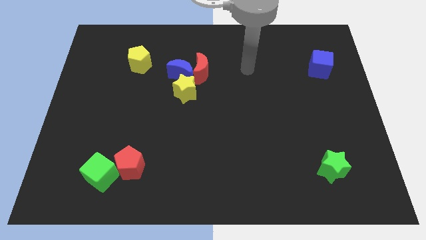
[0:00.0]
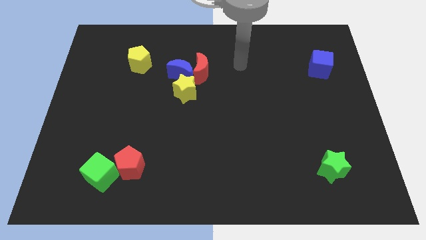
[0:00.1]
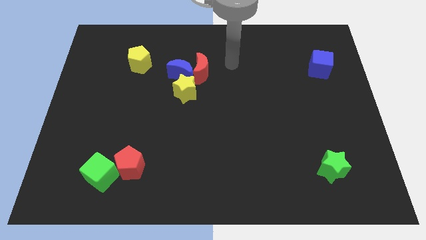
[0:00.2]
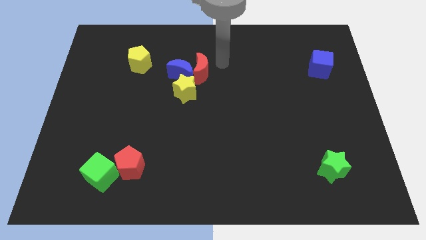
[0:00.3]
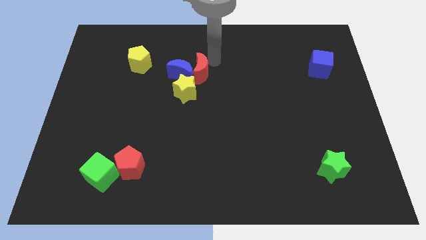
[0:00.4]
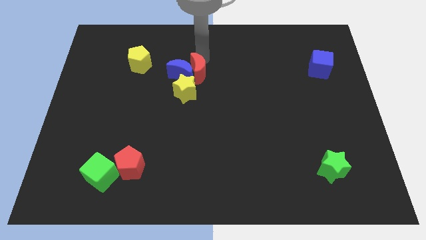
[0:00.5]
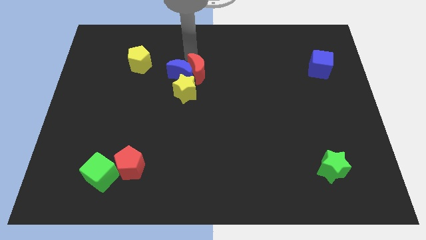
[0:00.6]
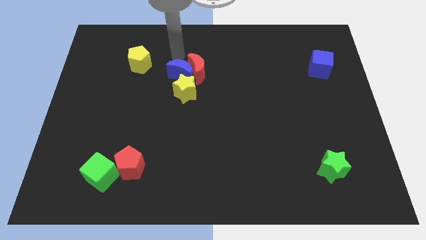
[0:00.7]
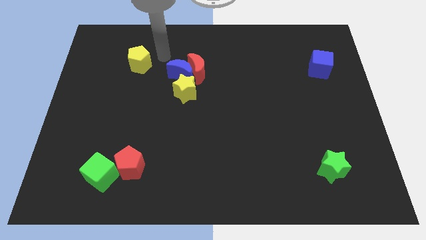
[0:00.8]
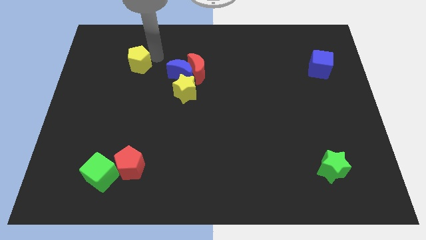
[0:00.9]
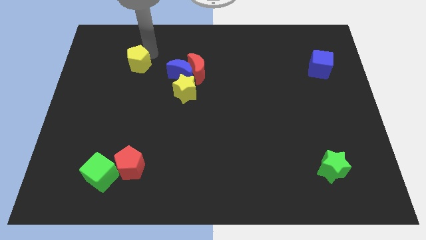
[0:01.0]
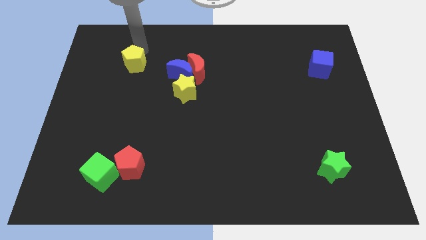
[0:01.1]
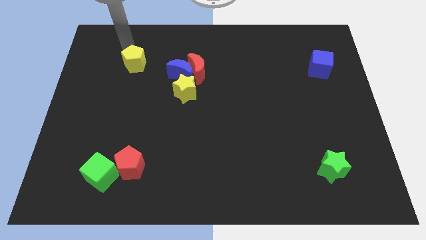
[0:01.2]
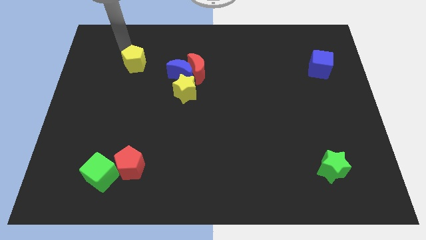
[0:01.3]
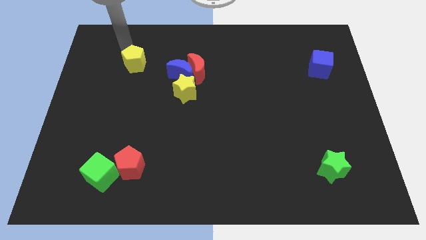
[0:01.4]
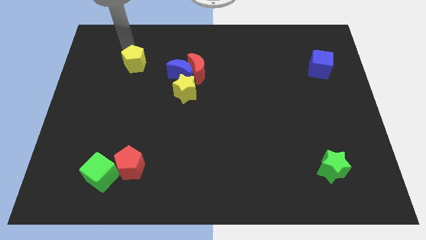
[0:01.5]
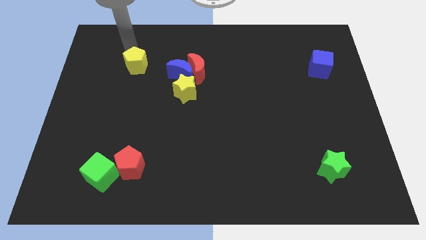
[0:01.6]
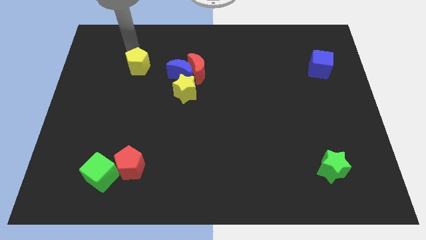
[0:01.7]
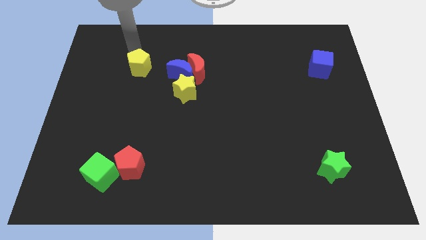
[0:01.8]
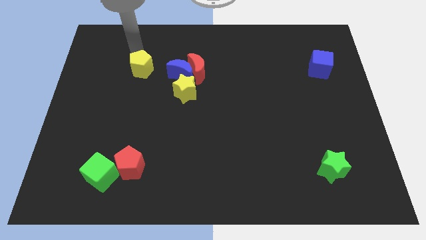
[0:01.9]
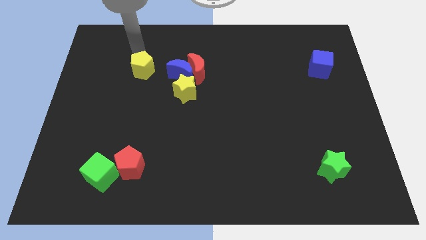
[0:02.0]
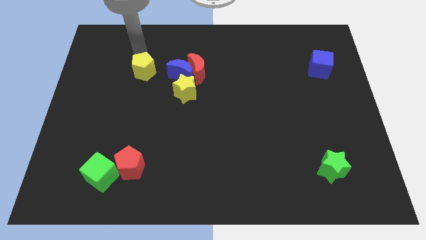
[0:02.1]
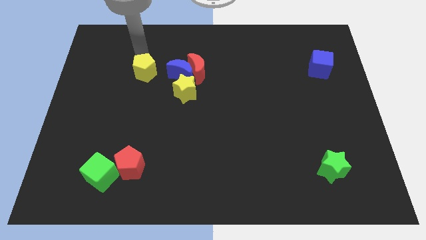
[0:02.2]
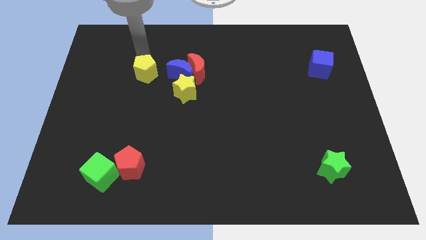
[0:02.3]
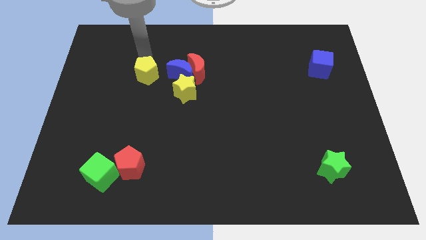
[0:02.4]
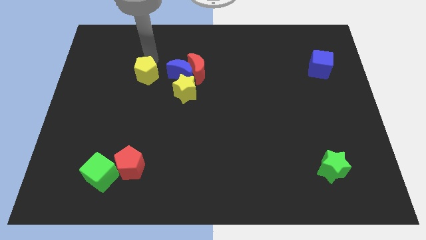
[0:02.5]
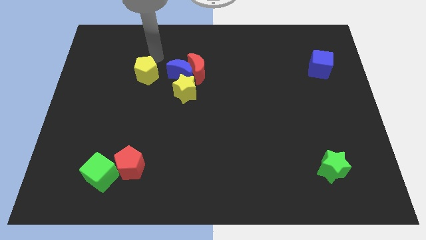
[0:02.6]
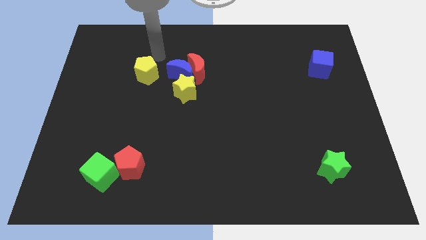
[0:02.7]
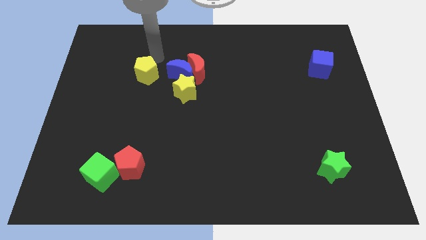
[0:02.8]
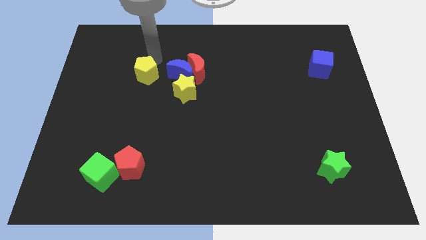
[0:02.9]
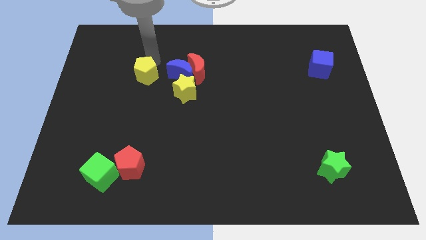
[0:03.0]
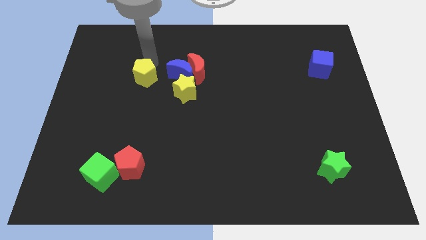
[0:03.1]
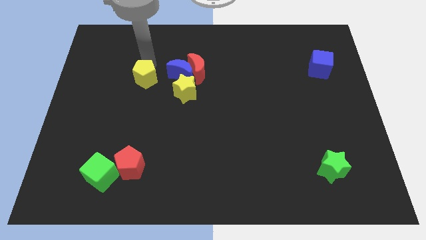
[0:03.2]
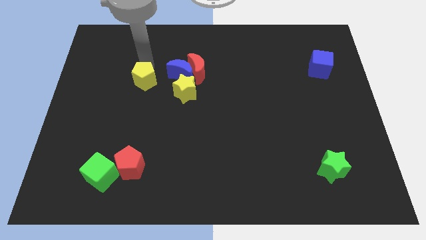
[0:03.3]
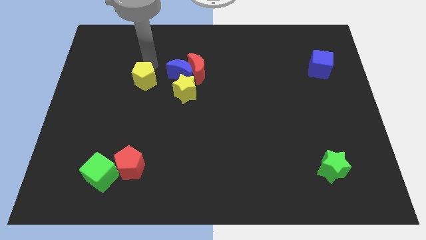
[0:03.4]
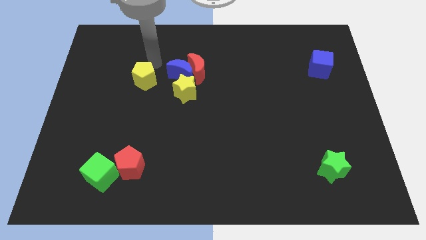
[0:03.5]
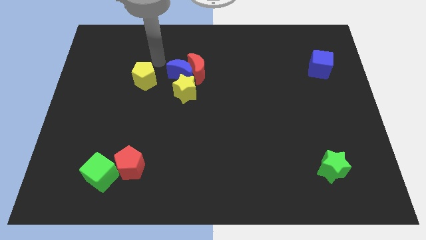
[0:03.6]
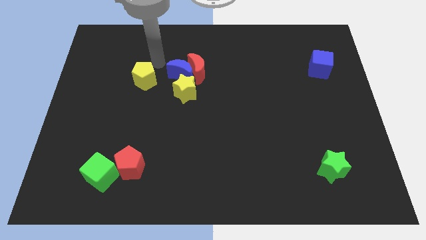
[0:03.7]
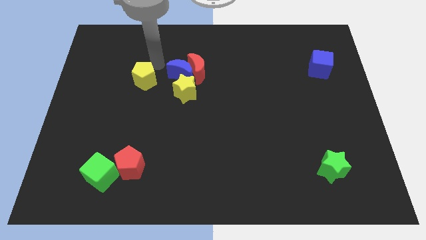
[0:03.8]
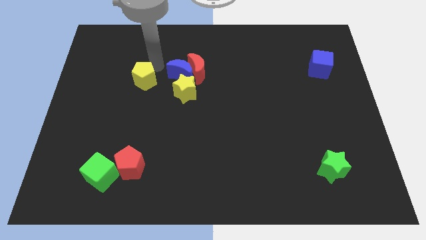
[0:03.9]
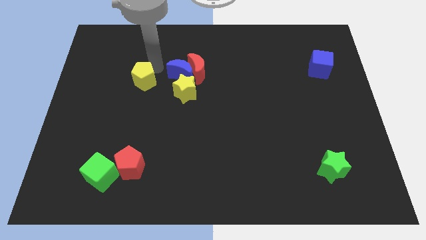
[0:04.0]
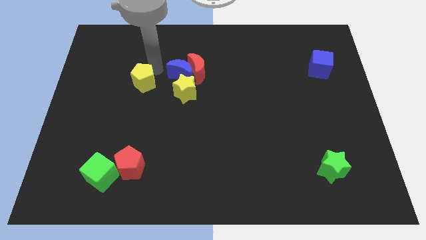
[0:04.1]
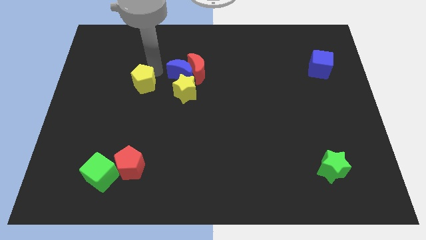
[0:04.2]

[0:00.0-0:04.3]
move the yellow pentagon a little bit down

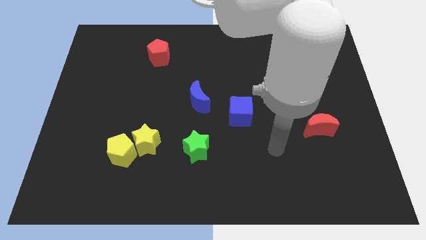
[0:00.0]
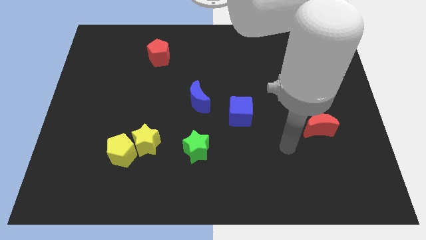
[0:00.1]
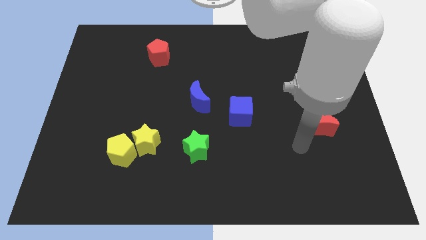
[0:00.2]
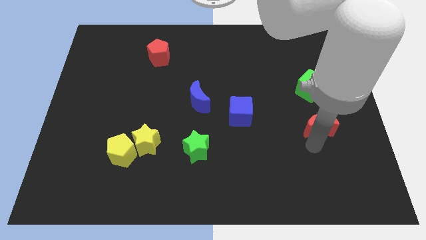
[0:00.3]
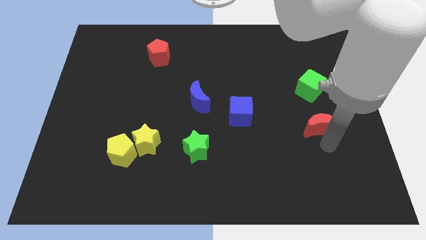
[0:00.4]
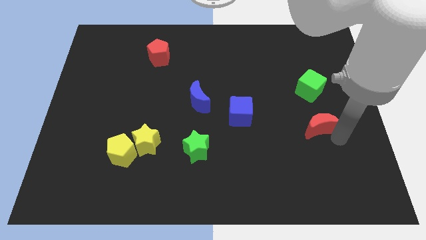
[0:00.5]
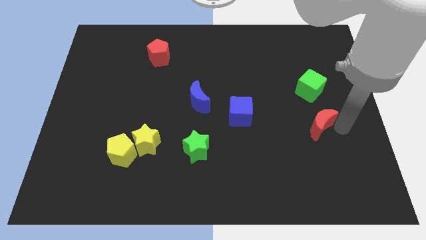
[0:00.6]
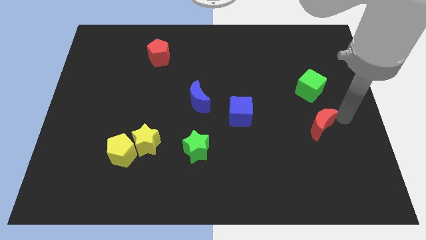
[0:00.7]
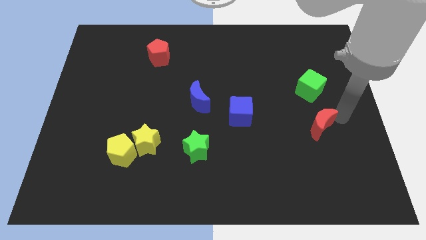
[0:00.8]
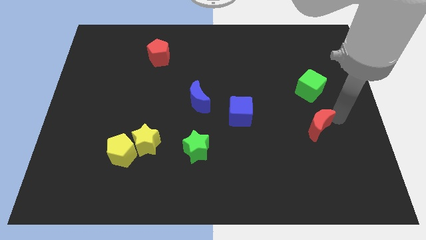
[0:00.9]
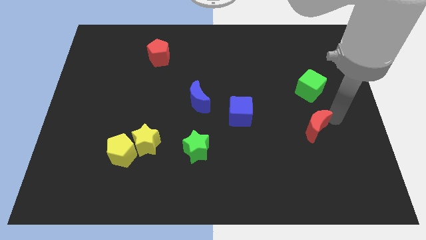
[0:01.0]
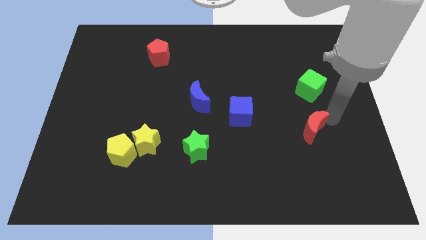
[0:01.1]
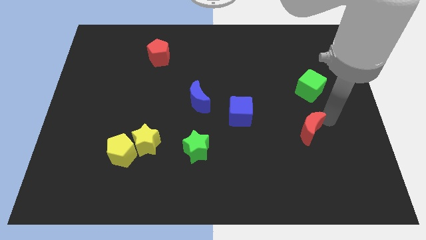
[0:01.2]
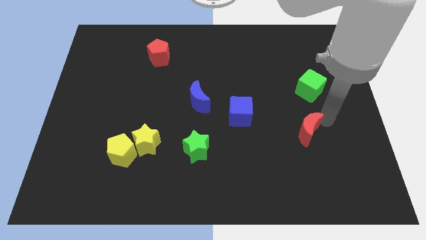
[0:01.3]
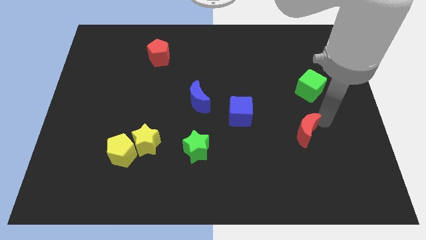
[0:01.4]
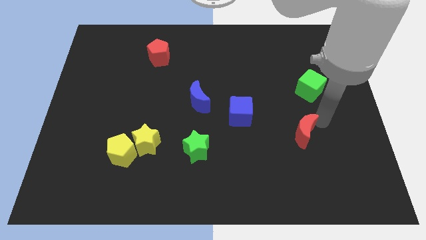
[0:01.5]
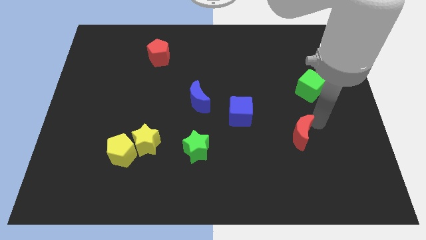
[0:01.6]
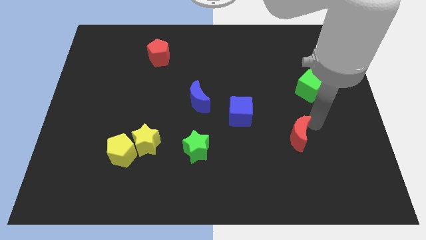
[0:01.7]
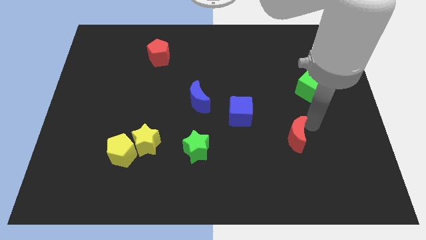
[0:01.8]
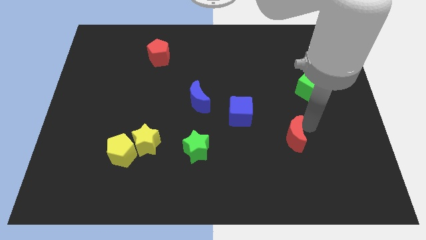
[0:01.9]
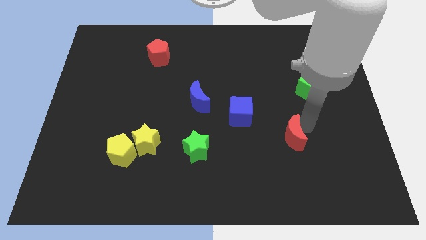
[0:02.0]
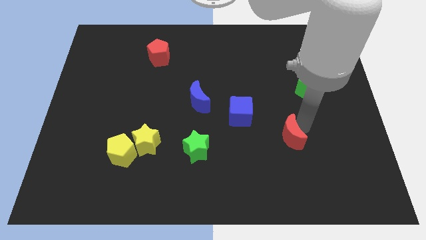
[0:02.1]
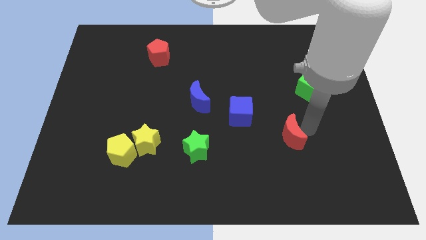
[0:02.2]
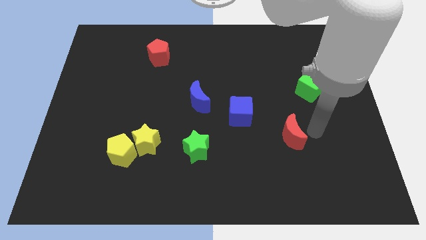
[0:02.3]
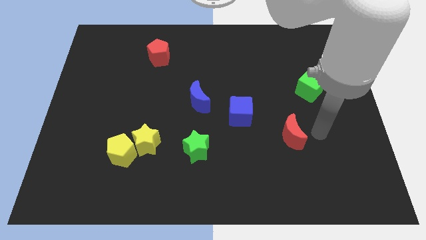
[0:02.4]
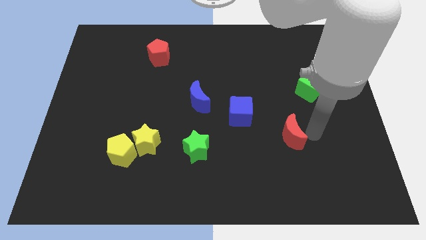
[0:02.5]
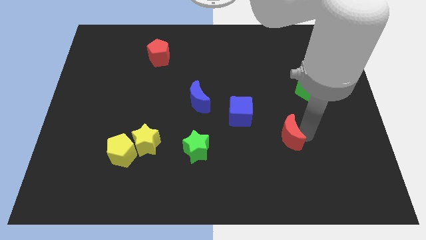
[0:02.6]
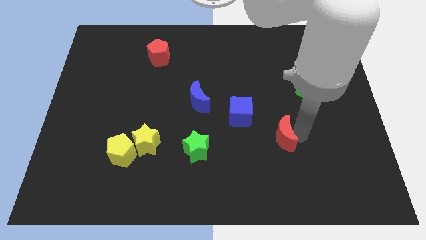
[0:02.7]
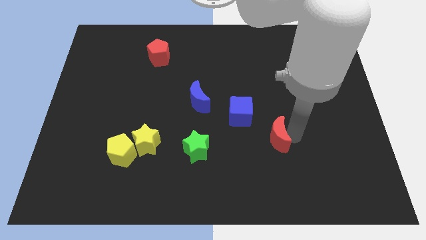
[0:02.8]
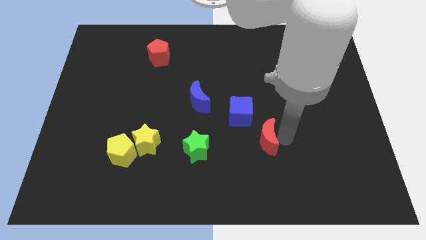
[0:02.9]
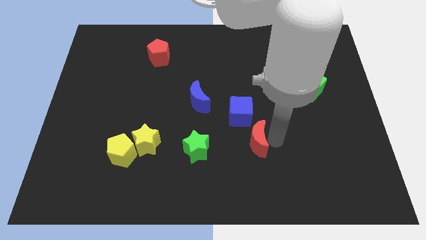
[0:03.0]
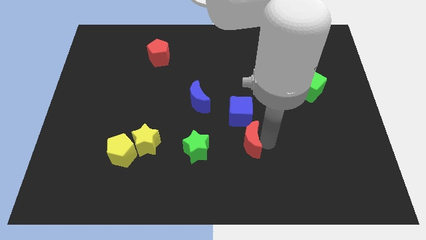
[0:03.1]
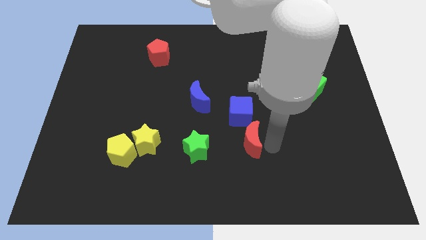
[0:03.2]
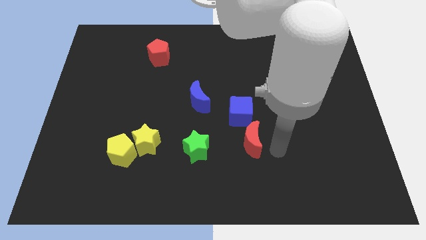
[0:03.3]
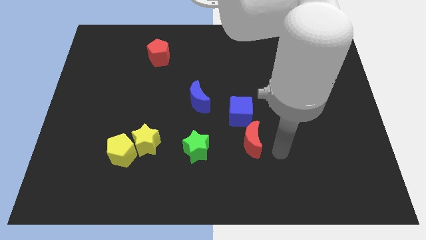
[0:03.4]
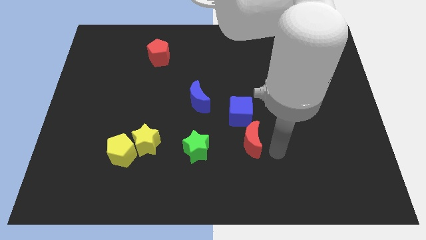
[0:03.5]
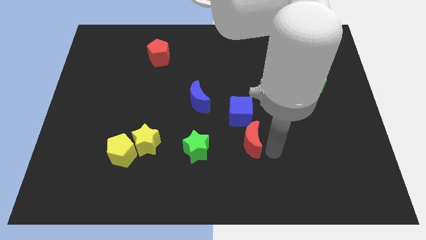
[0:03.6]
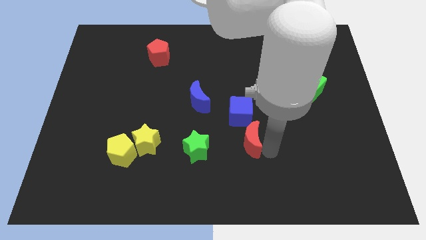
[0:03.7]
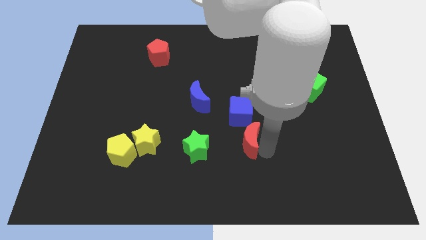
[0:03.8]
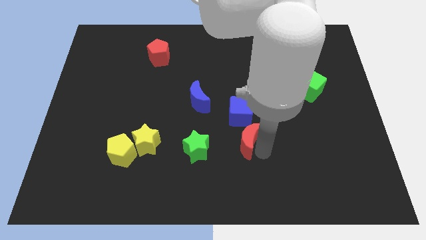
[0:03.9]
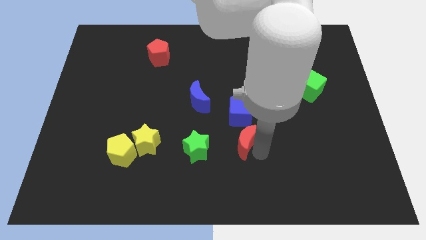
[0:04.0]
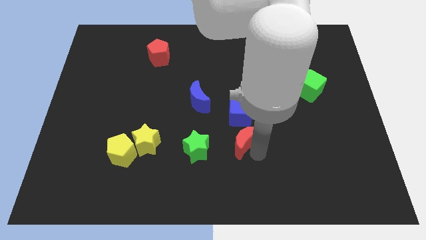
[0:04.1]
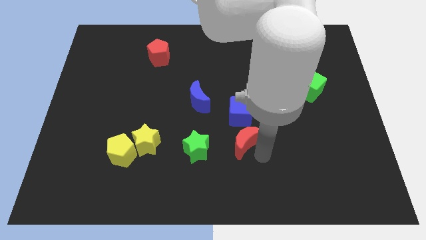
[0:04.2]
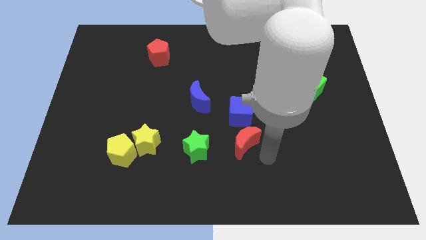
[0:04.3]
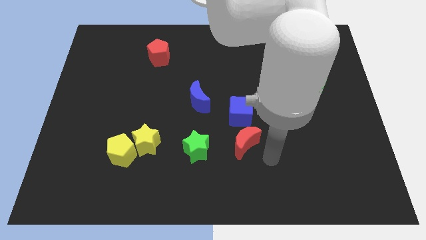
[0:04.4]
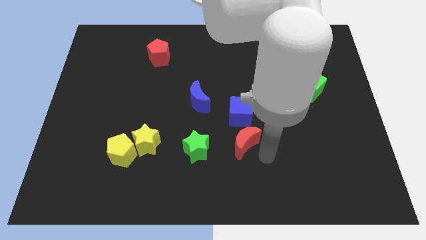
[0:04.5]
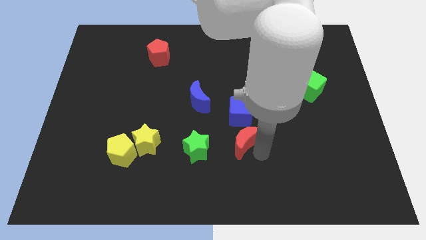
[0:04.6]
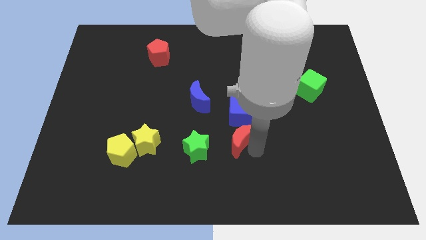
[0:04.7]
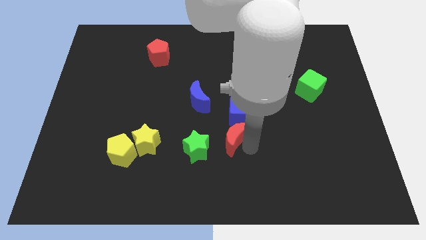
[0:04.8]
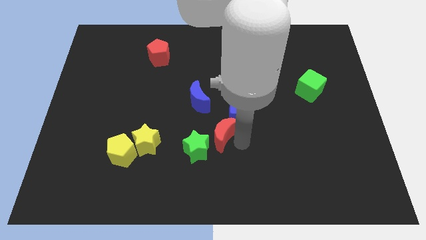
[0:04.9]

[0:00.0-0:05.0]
push the red moon left
